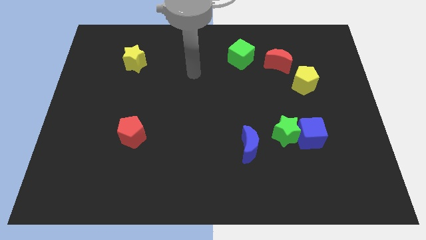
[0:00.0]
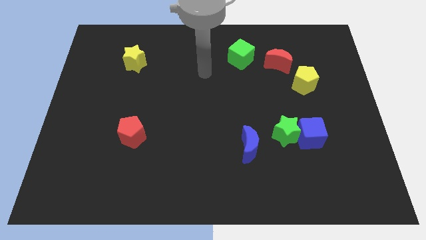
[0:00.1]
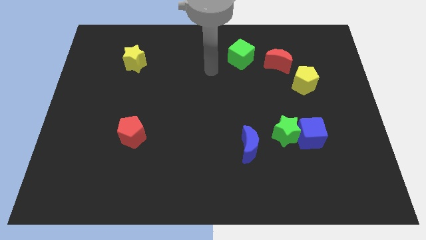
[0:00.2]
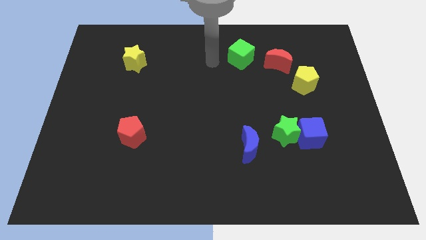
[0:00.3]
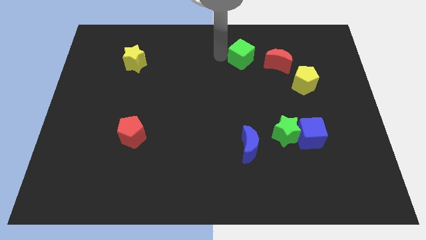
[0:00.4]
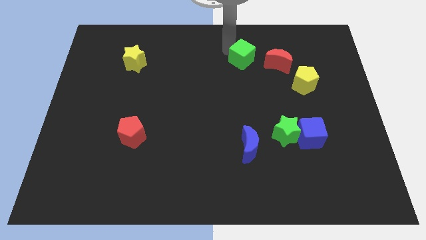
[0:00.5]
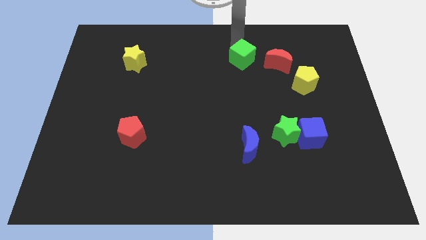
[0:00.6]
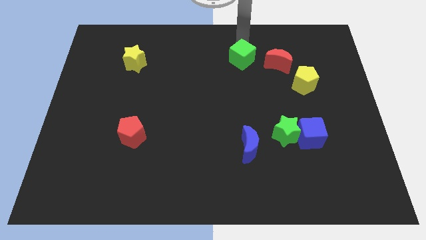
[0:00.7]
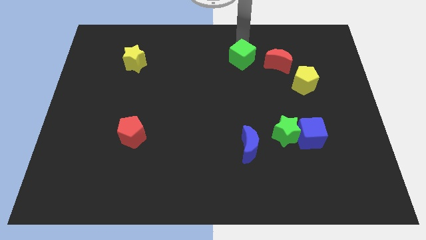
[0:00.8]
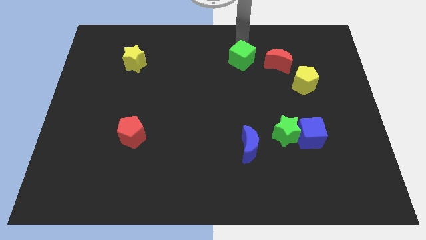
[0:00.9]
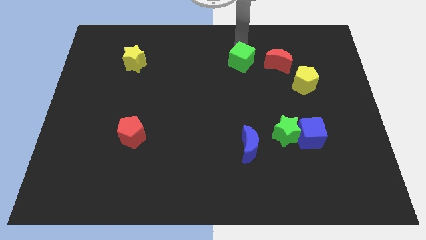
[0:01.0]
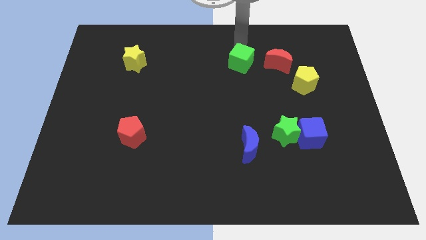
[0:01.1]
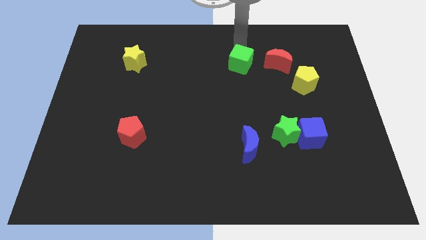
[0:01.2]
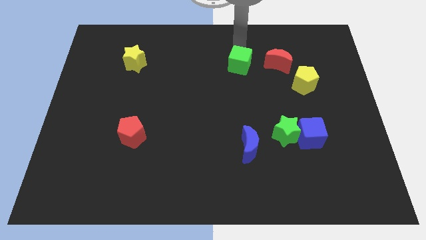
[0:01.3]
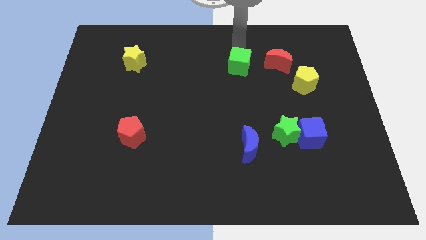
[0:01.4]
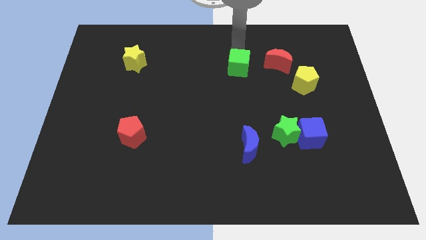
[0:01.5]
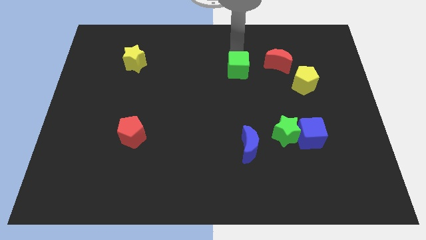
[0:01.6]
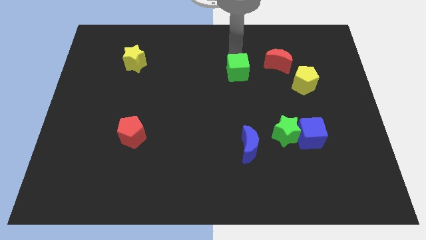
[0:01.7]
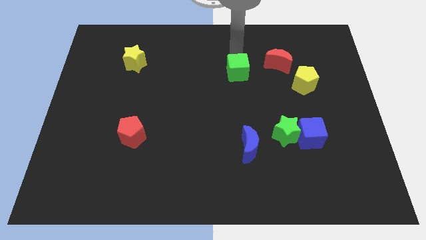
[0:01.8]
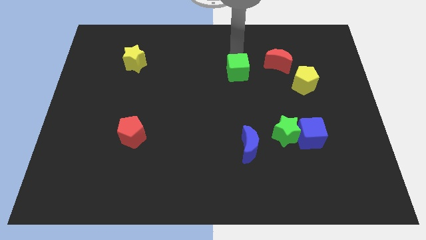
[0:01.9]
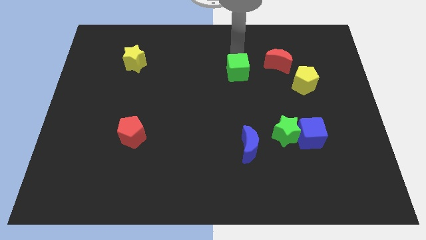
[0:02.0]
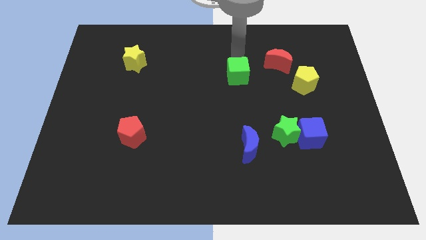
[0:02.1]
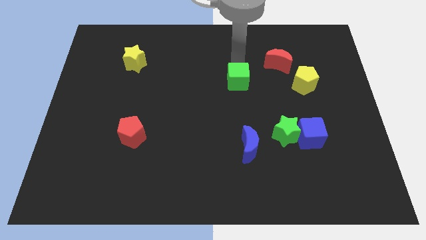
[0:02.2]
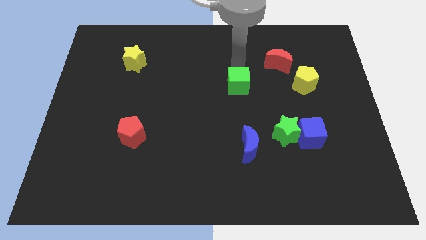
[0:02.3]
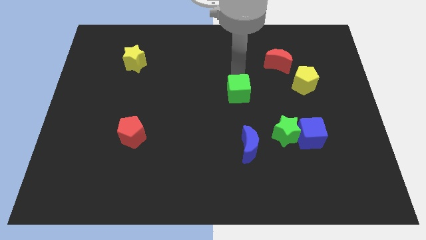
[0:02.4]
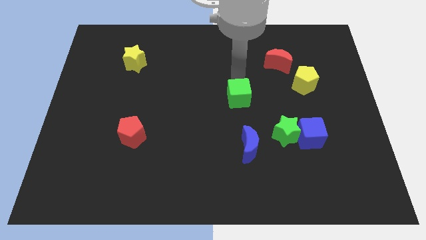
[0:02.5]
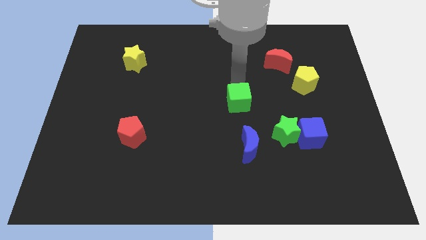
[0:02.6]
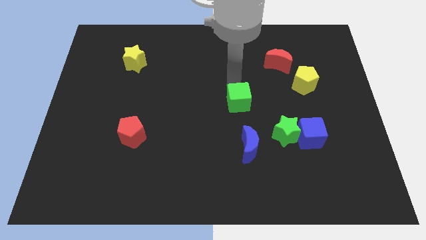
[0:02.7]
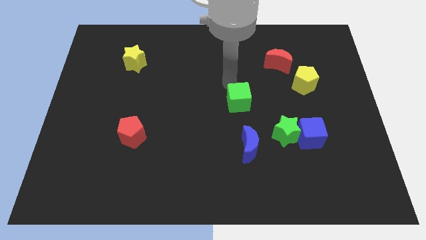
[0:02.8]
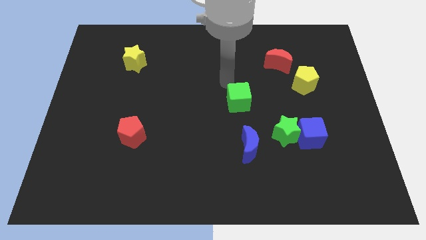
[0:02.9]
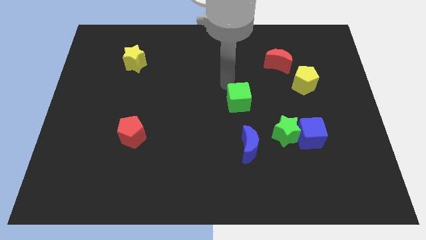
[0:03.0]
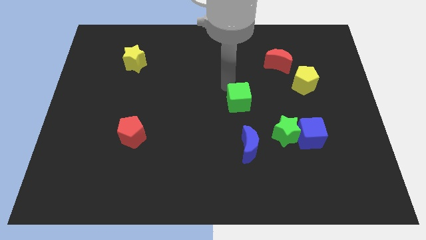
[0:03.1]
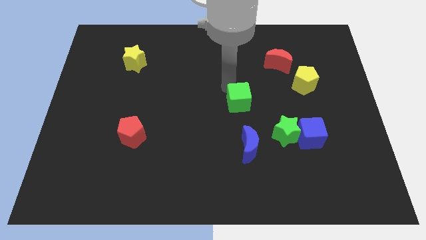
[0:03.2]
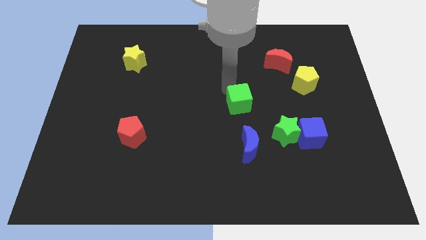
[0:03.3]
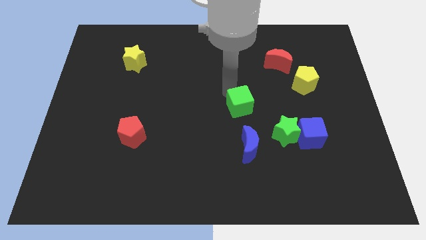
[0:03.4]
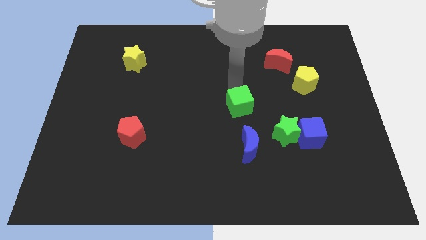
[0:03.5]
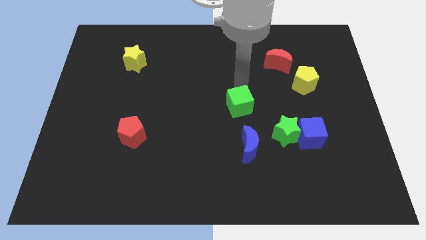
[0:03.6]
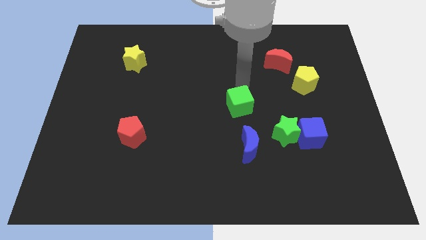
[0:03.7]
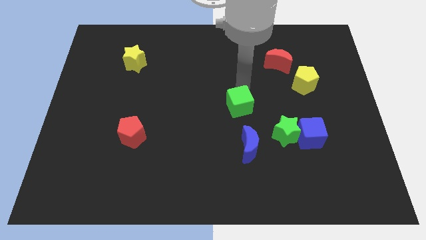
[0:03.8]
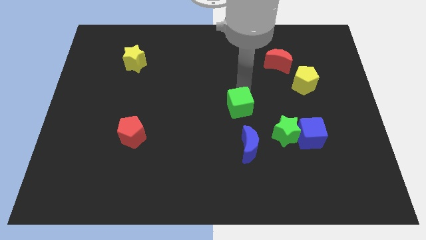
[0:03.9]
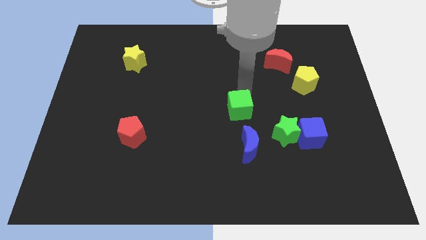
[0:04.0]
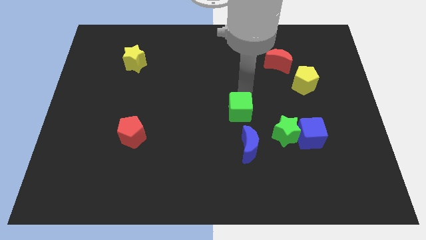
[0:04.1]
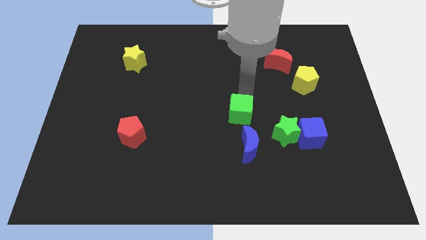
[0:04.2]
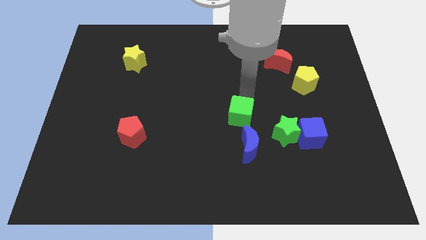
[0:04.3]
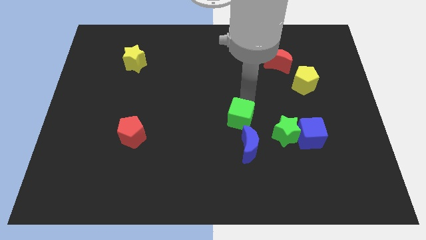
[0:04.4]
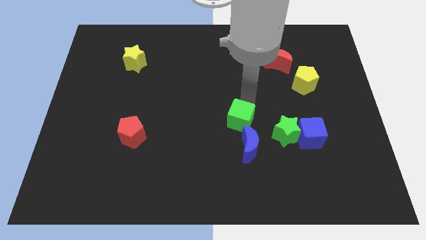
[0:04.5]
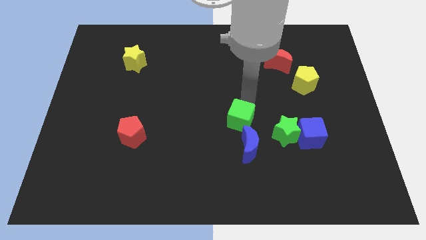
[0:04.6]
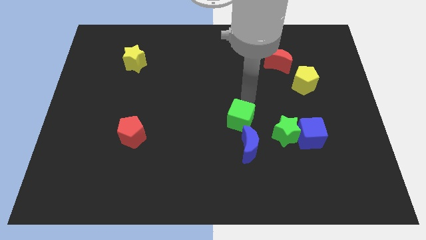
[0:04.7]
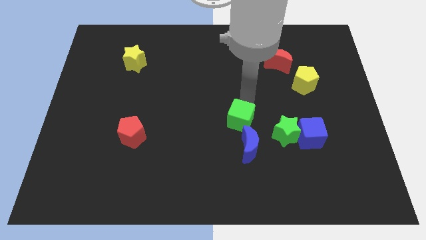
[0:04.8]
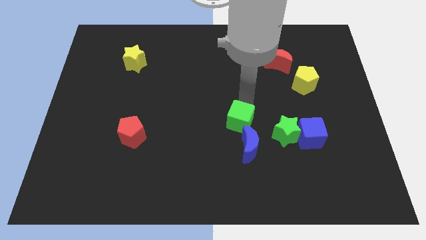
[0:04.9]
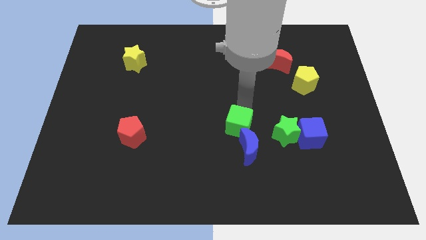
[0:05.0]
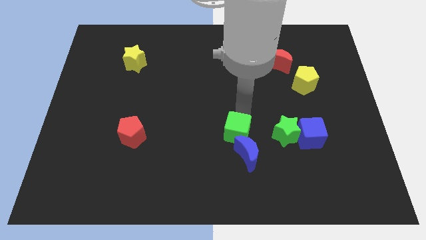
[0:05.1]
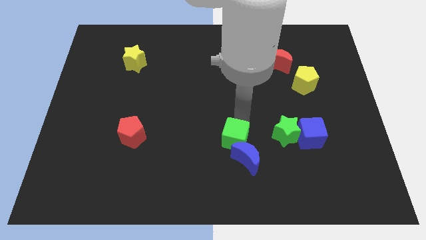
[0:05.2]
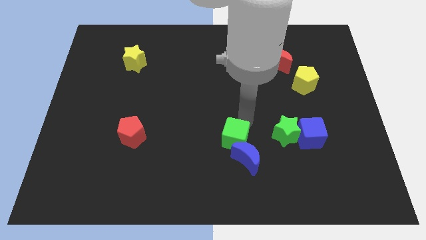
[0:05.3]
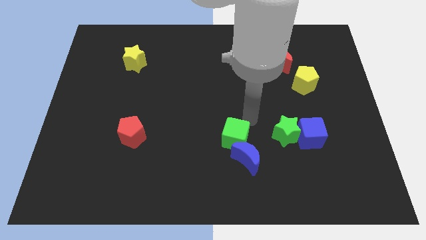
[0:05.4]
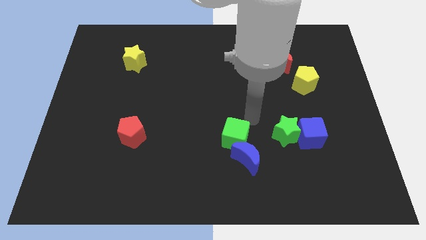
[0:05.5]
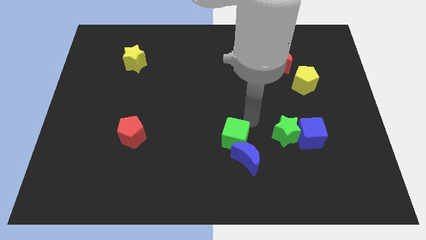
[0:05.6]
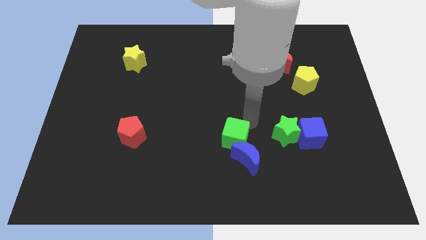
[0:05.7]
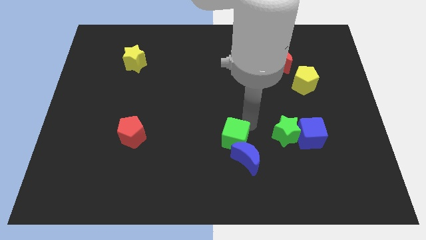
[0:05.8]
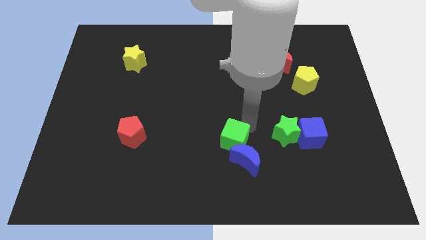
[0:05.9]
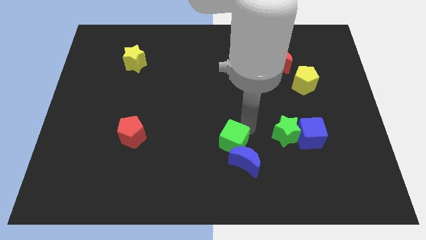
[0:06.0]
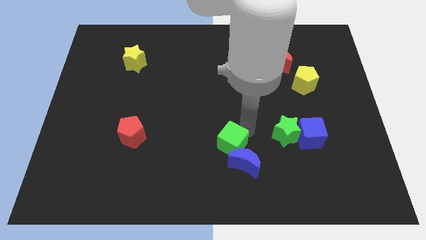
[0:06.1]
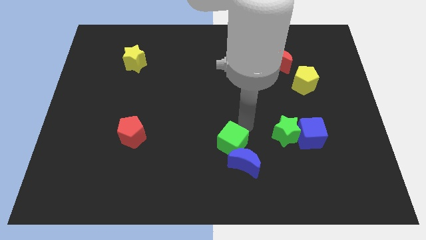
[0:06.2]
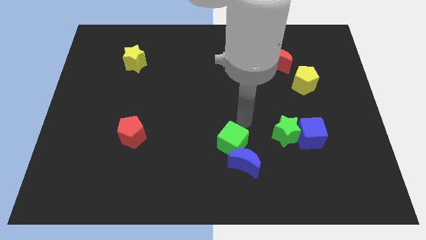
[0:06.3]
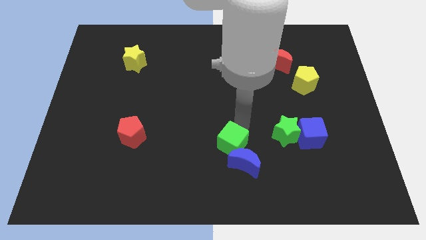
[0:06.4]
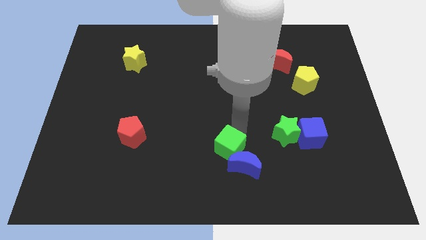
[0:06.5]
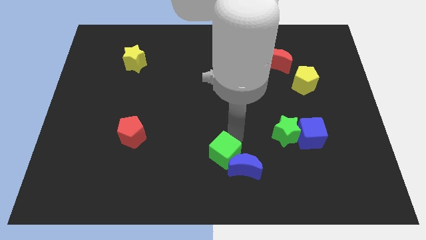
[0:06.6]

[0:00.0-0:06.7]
move the green cube to the bottom side
